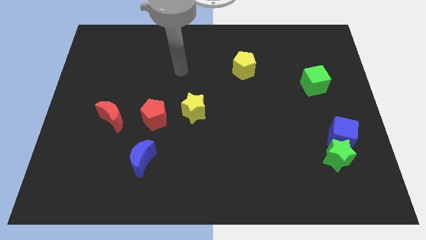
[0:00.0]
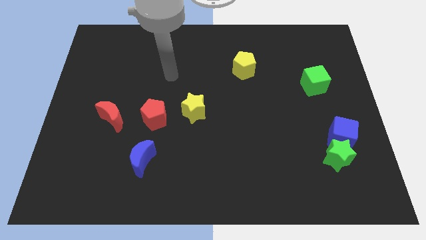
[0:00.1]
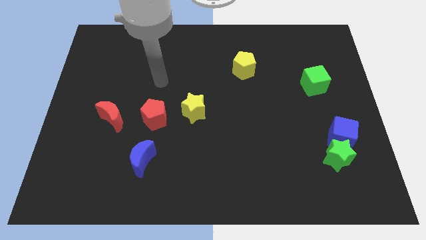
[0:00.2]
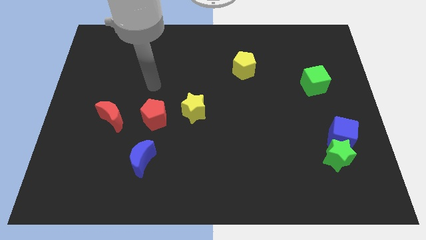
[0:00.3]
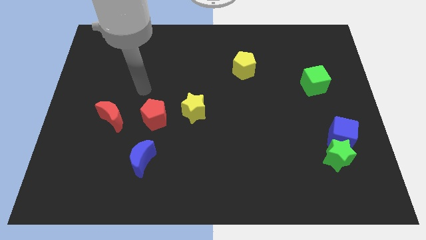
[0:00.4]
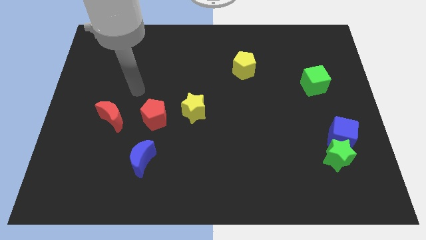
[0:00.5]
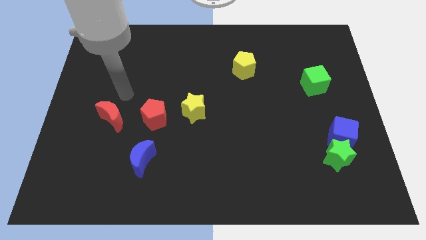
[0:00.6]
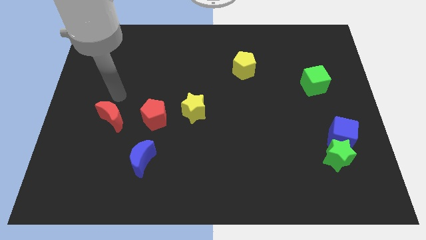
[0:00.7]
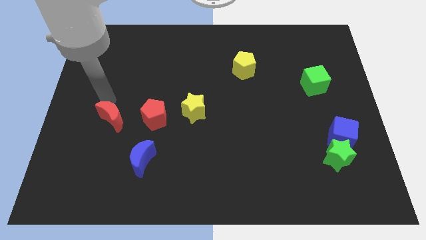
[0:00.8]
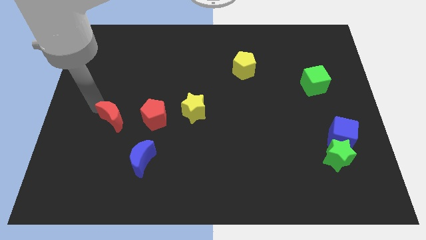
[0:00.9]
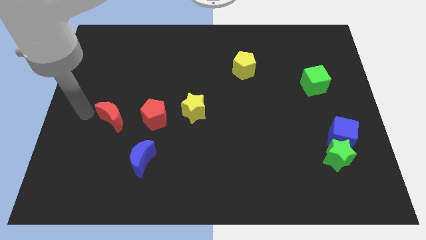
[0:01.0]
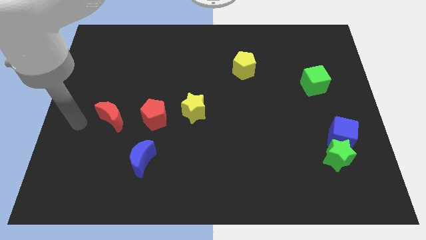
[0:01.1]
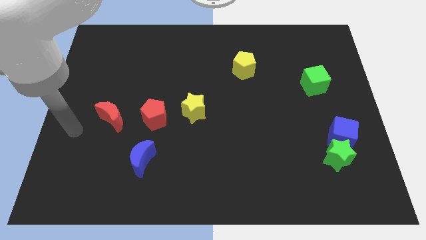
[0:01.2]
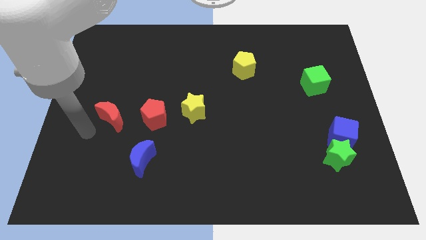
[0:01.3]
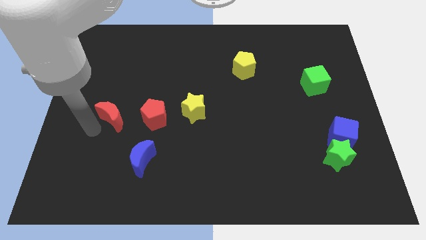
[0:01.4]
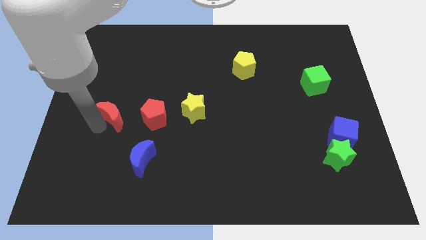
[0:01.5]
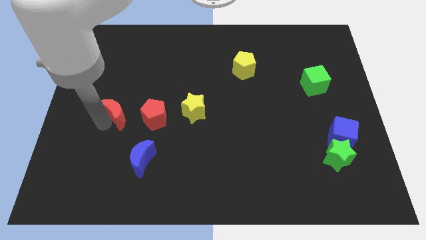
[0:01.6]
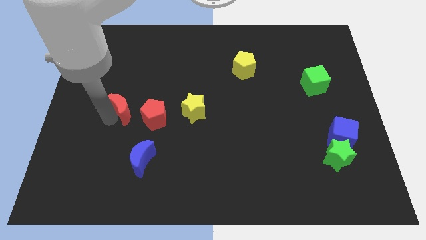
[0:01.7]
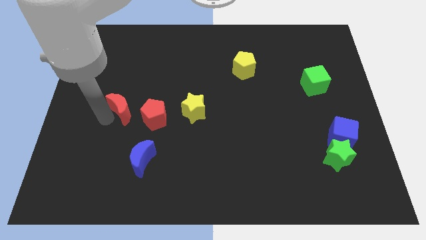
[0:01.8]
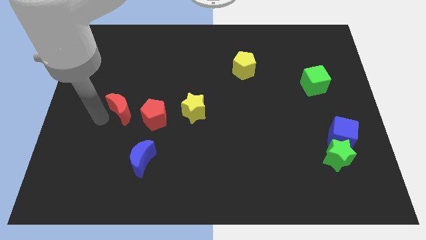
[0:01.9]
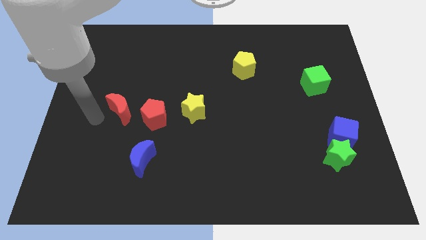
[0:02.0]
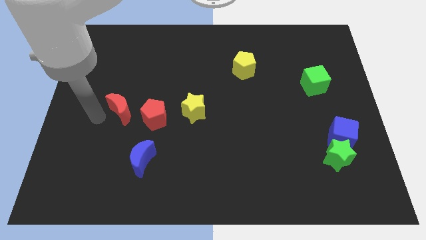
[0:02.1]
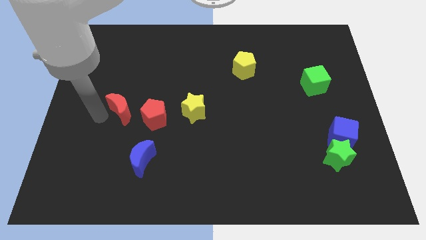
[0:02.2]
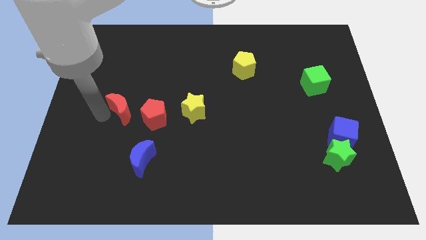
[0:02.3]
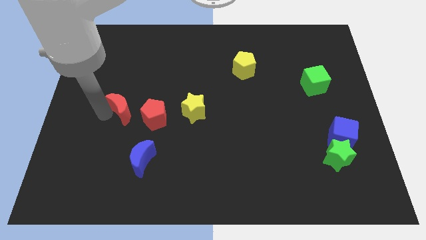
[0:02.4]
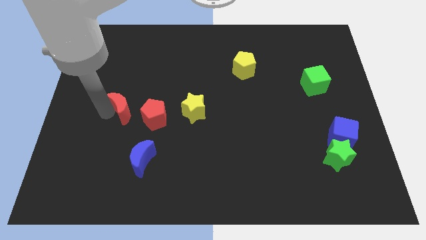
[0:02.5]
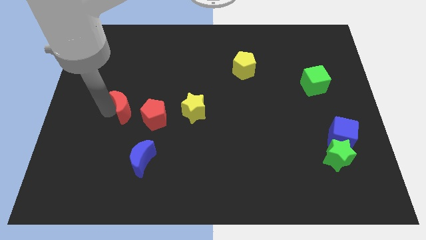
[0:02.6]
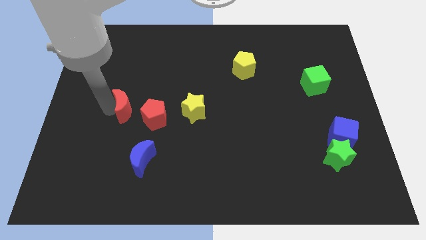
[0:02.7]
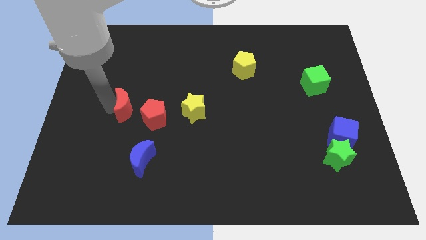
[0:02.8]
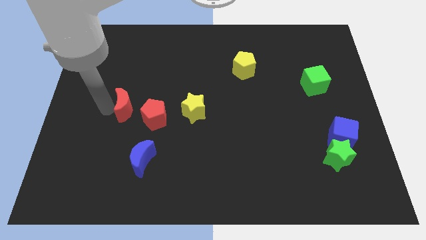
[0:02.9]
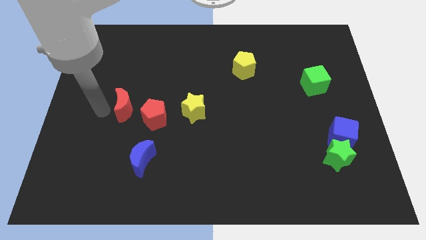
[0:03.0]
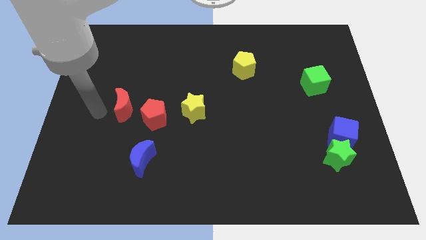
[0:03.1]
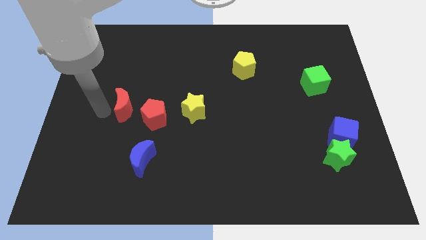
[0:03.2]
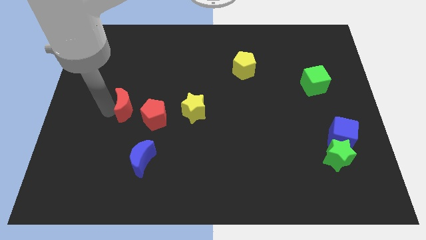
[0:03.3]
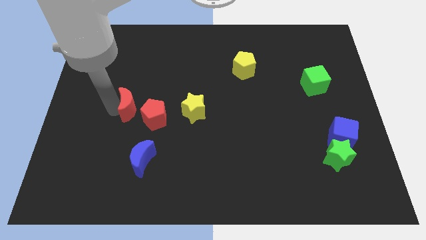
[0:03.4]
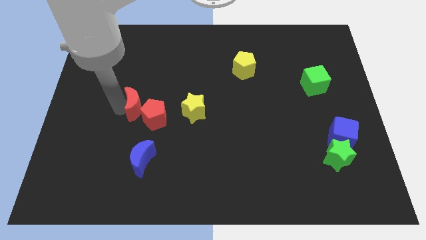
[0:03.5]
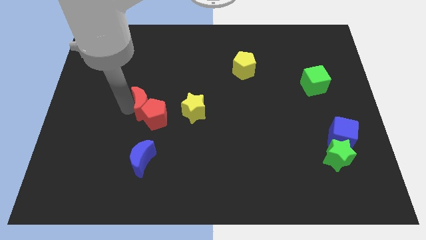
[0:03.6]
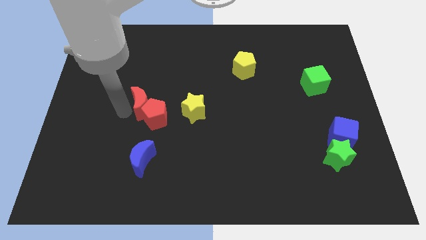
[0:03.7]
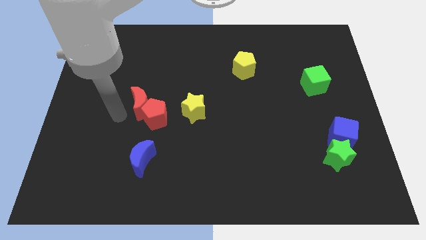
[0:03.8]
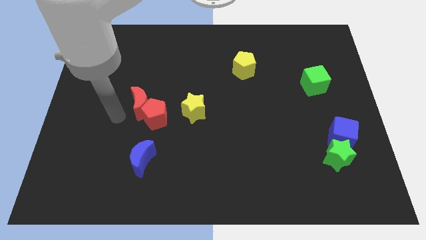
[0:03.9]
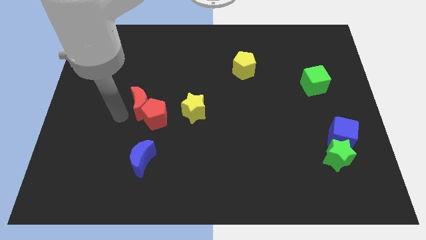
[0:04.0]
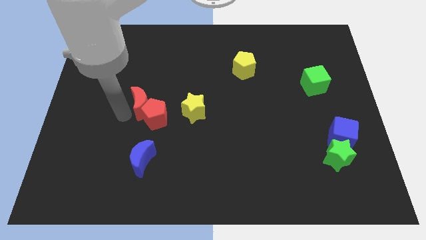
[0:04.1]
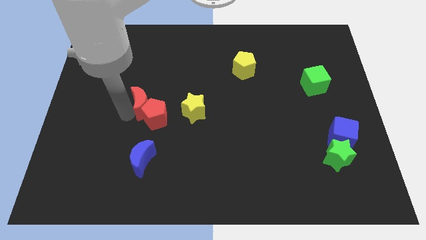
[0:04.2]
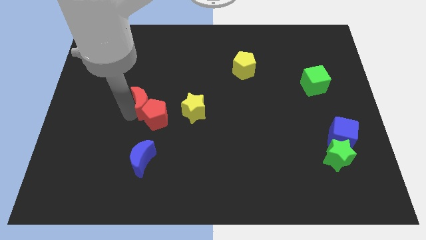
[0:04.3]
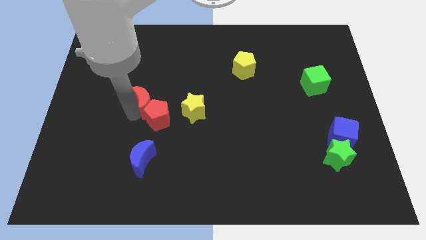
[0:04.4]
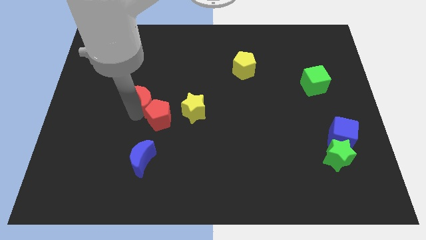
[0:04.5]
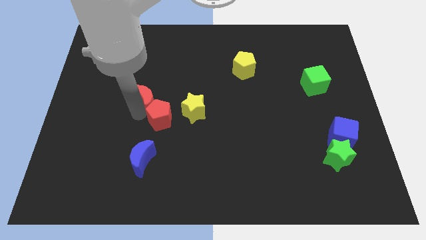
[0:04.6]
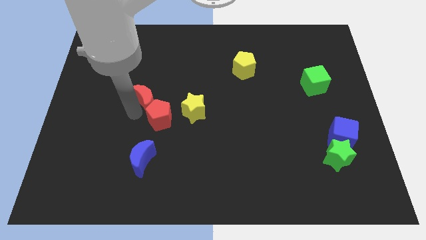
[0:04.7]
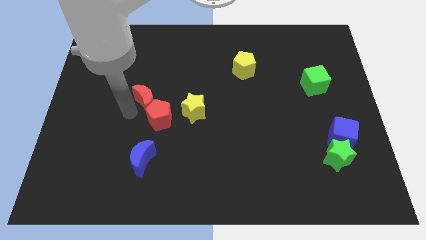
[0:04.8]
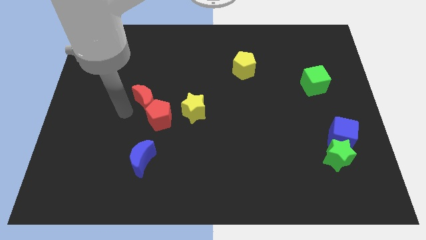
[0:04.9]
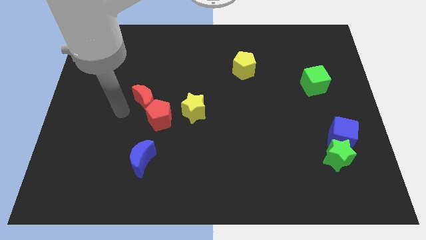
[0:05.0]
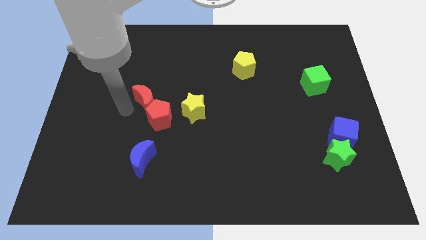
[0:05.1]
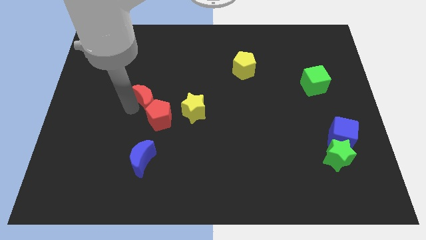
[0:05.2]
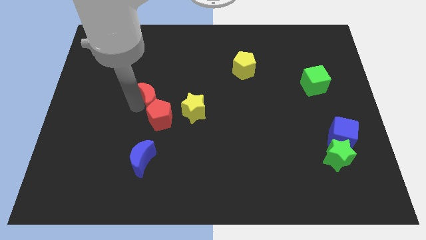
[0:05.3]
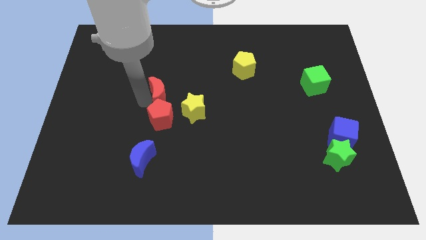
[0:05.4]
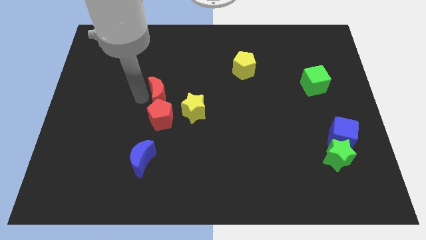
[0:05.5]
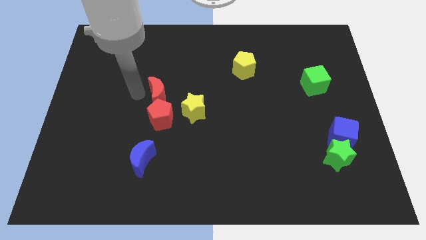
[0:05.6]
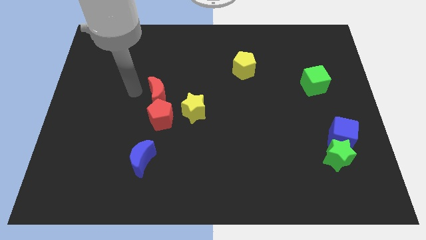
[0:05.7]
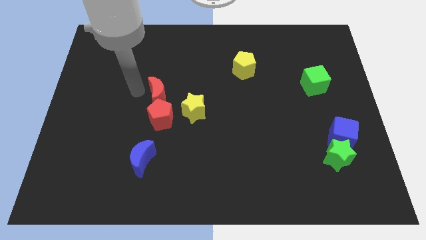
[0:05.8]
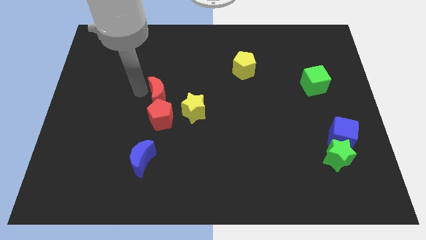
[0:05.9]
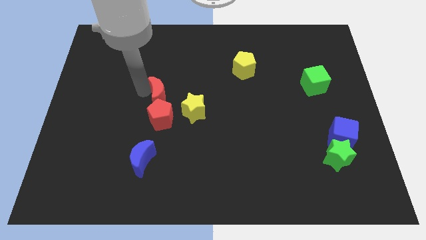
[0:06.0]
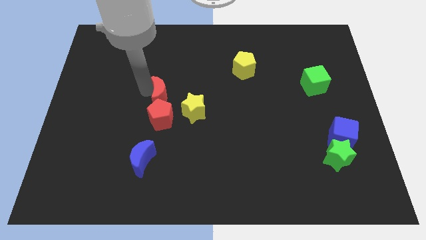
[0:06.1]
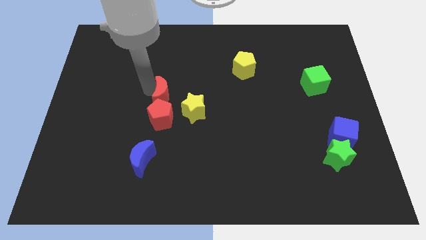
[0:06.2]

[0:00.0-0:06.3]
move the red moon to the top right side of the red pentagon

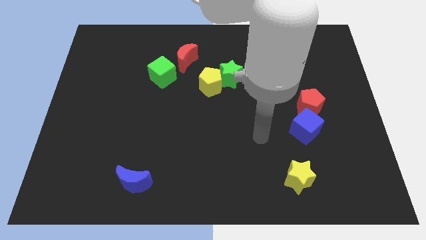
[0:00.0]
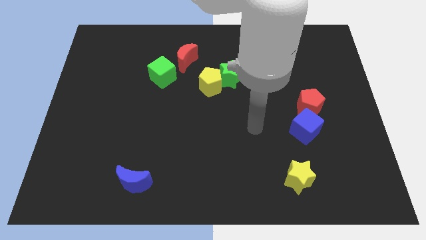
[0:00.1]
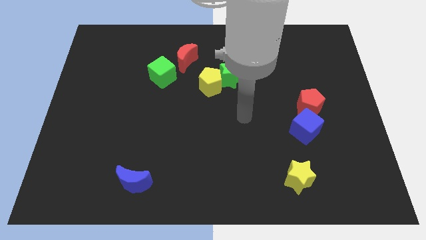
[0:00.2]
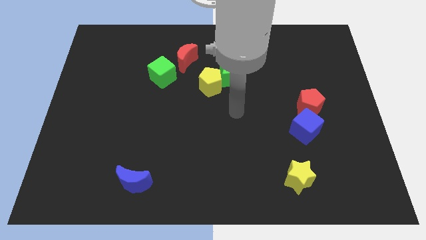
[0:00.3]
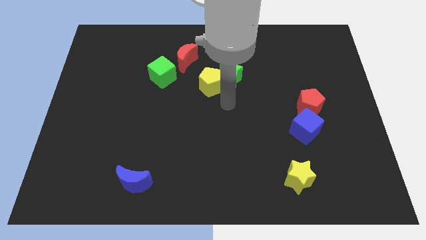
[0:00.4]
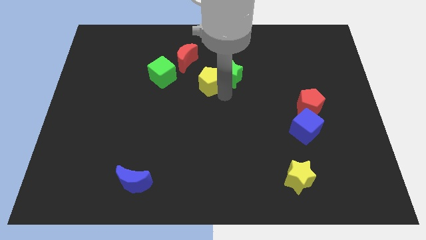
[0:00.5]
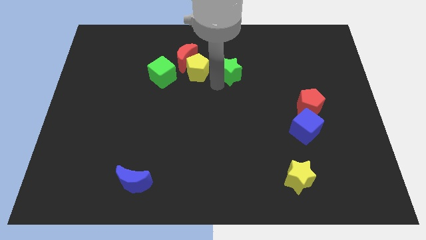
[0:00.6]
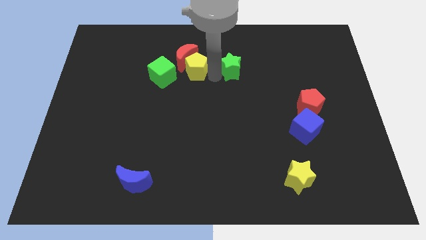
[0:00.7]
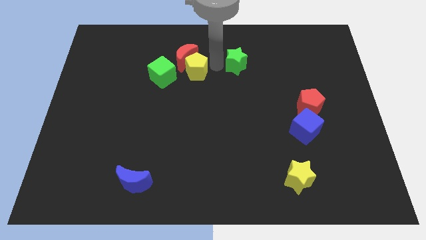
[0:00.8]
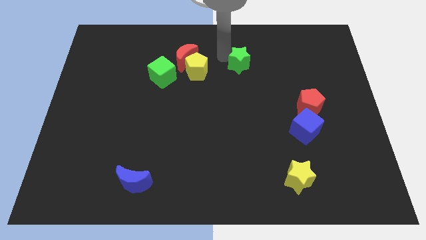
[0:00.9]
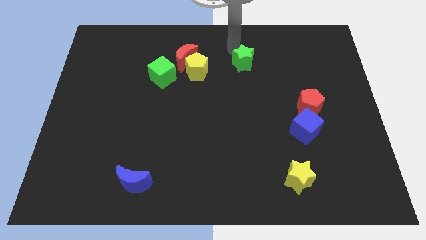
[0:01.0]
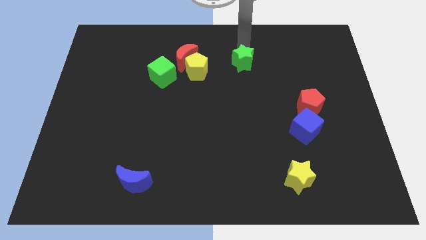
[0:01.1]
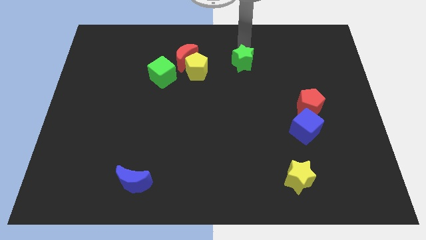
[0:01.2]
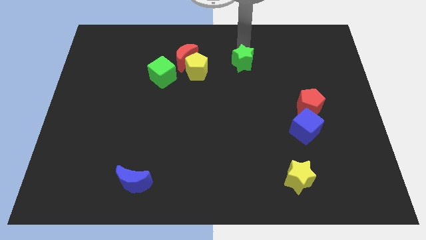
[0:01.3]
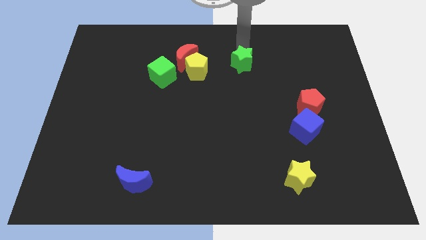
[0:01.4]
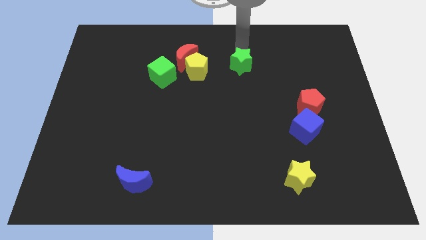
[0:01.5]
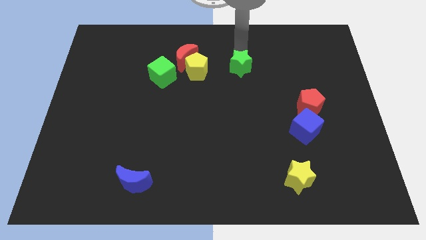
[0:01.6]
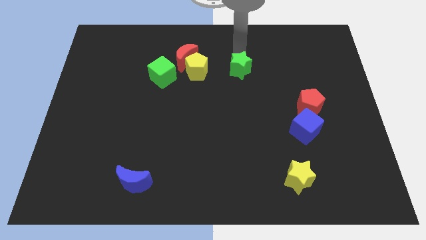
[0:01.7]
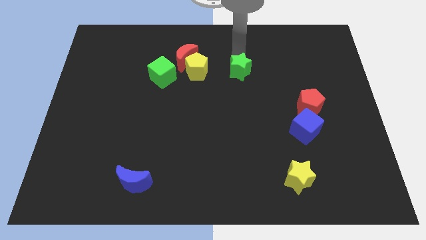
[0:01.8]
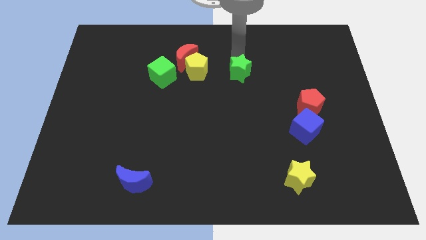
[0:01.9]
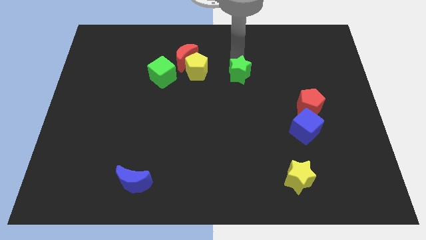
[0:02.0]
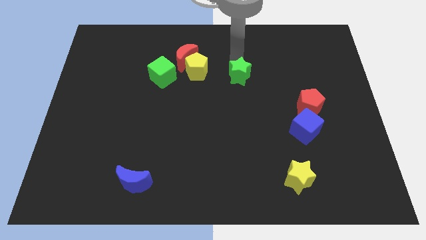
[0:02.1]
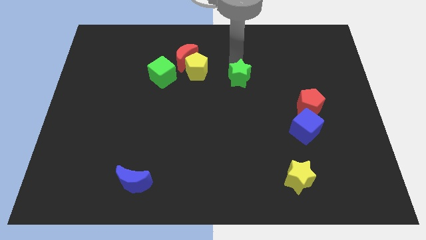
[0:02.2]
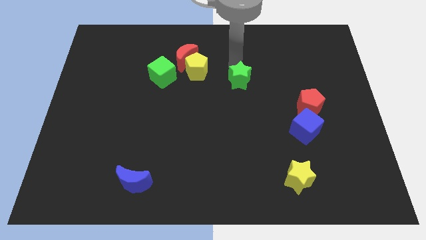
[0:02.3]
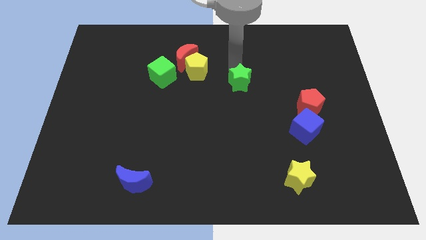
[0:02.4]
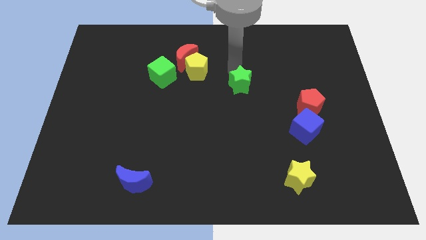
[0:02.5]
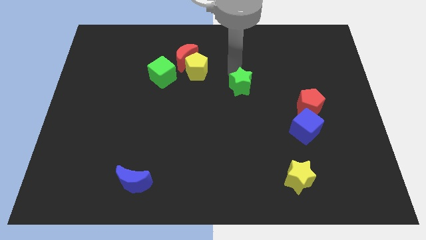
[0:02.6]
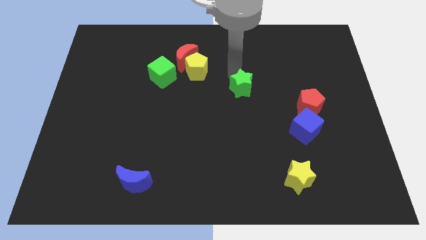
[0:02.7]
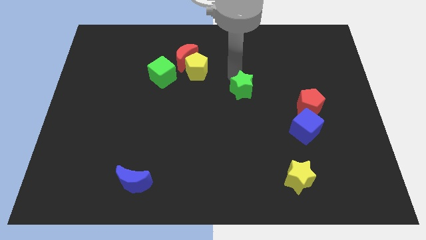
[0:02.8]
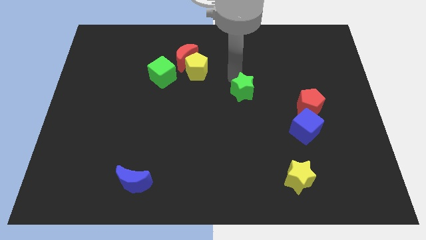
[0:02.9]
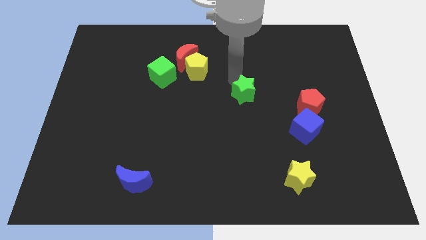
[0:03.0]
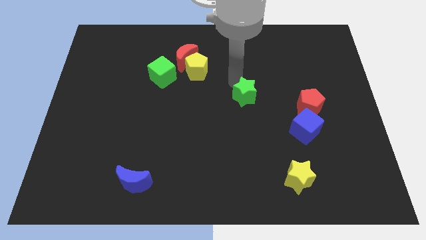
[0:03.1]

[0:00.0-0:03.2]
move the green star just left of the red pentagon
